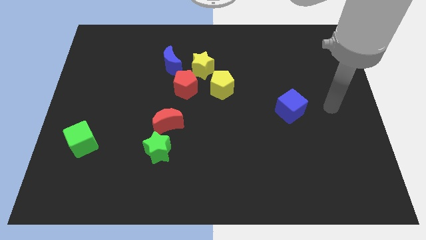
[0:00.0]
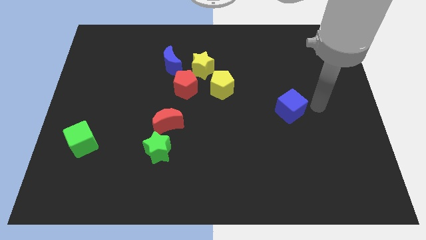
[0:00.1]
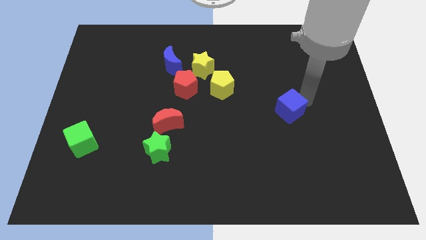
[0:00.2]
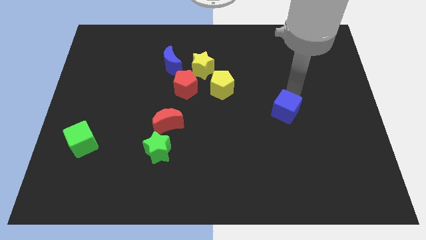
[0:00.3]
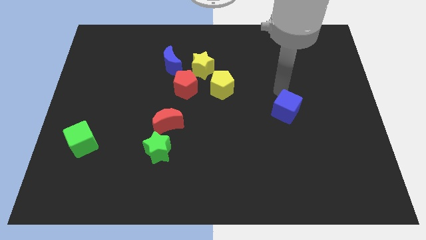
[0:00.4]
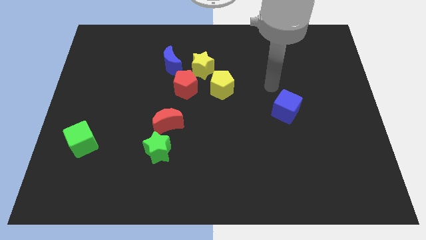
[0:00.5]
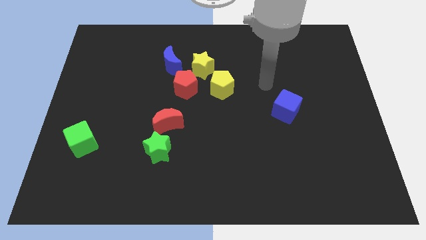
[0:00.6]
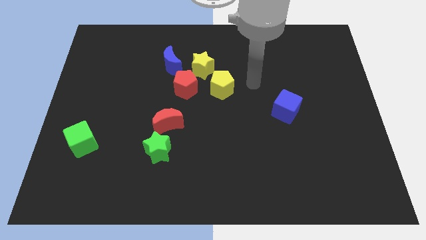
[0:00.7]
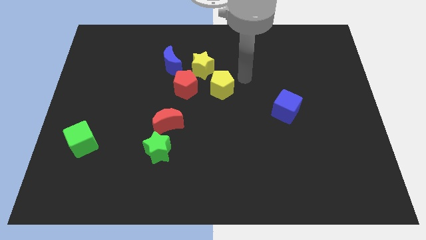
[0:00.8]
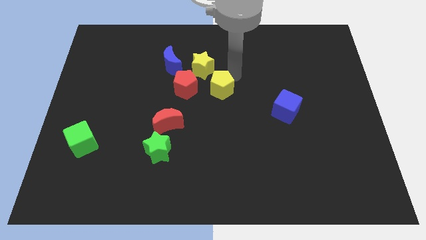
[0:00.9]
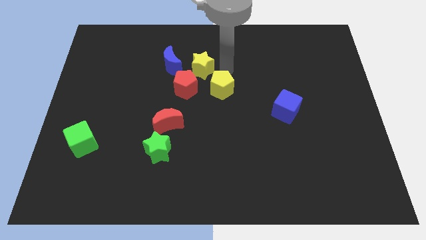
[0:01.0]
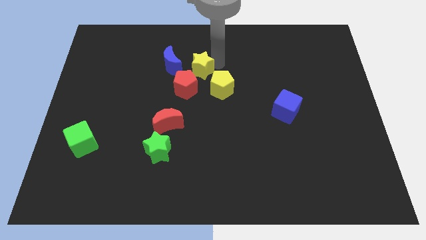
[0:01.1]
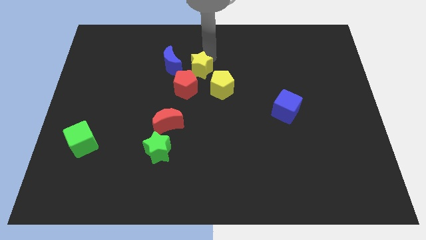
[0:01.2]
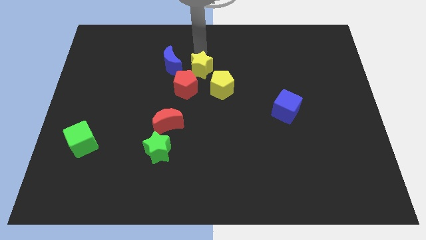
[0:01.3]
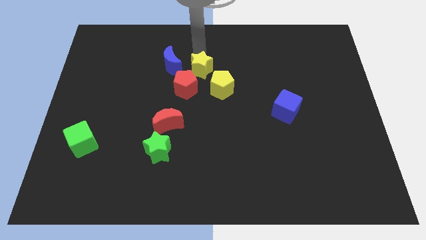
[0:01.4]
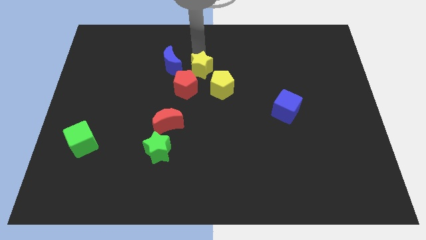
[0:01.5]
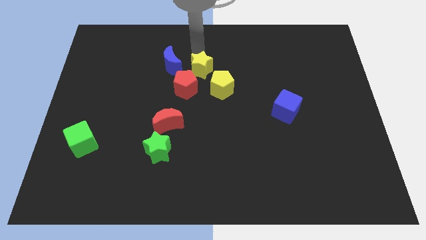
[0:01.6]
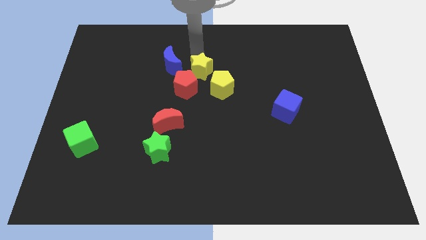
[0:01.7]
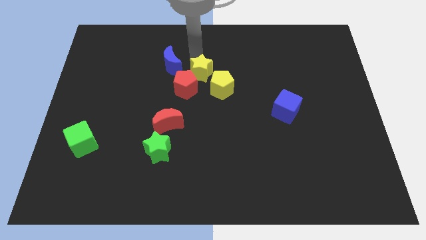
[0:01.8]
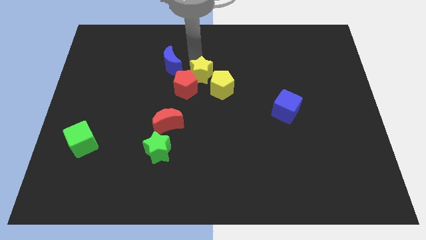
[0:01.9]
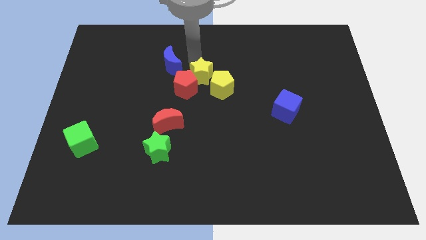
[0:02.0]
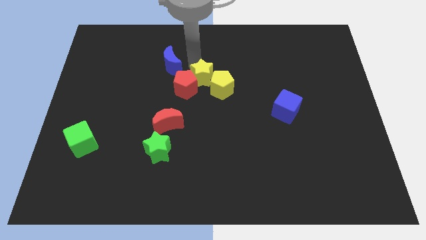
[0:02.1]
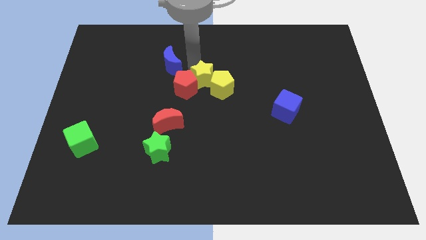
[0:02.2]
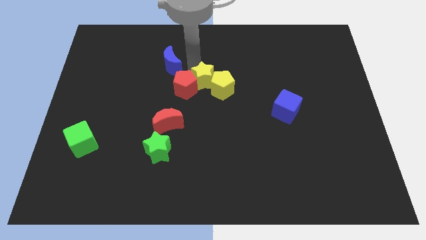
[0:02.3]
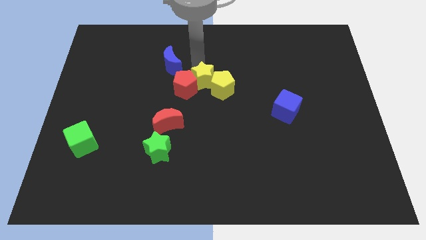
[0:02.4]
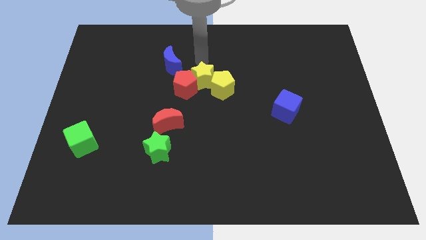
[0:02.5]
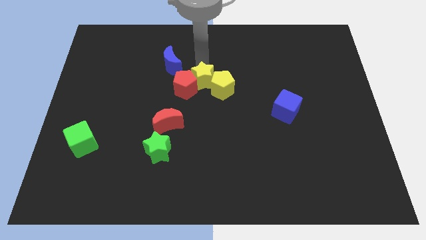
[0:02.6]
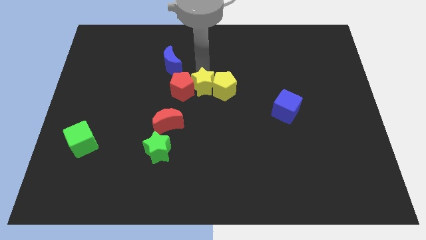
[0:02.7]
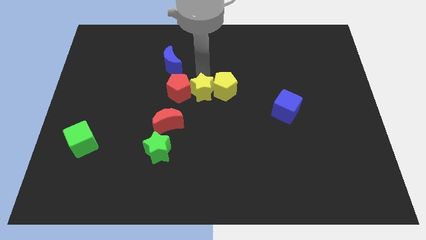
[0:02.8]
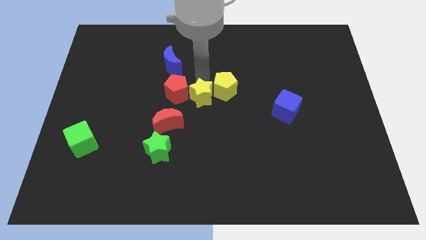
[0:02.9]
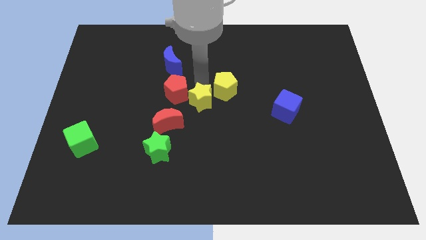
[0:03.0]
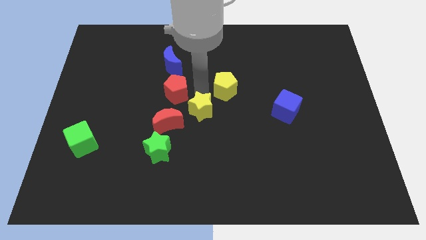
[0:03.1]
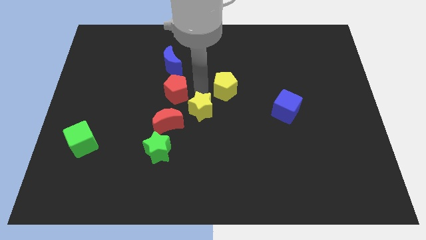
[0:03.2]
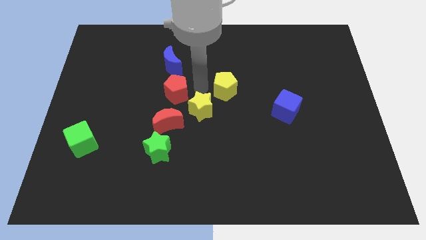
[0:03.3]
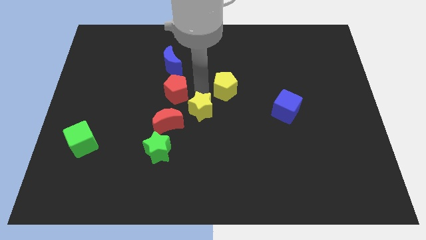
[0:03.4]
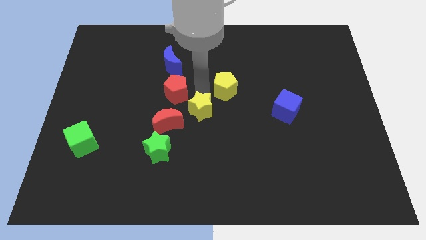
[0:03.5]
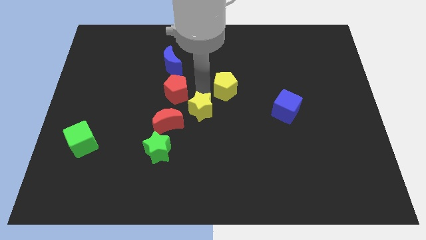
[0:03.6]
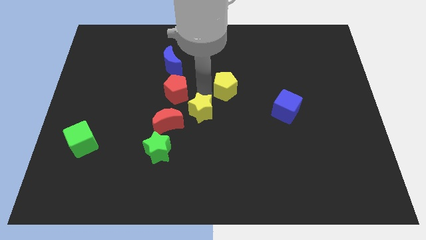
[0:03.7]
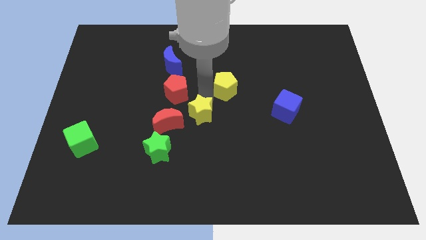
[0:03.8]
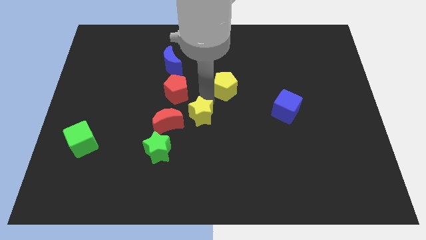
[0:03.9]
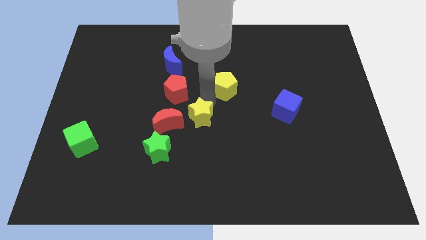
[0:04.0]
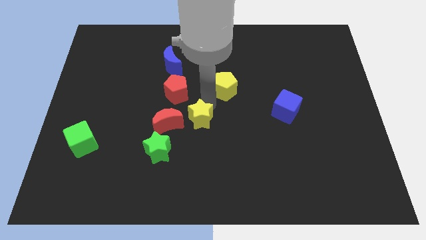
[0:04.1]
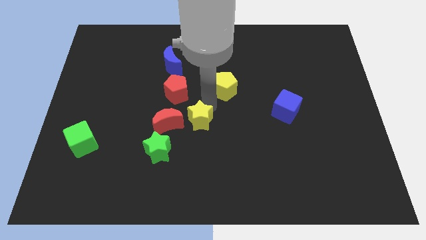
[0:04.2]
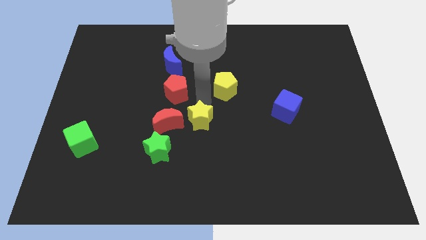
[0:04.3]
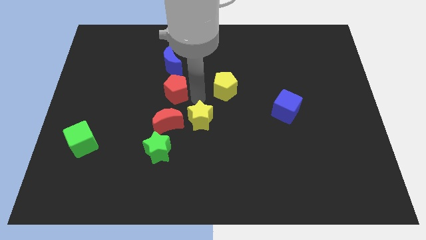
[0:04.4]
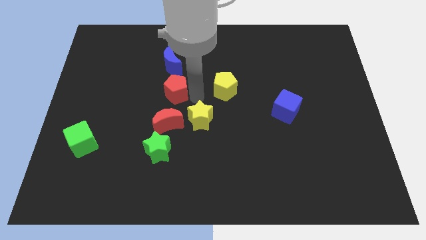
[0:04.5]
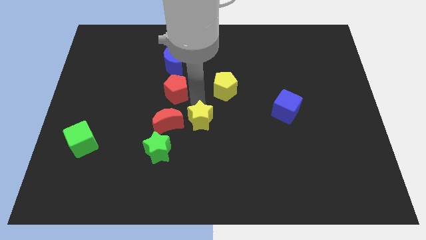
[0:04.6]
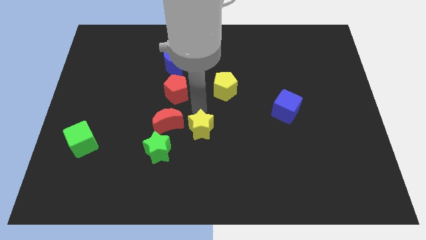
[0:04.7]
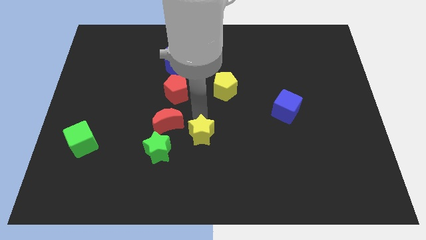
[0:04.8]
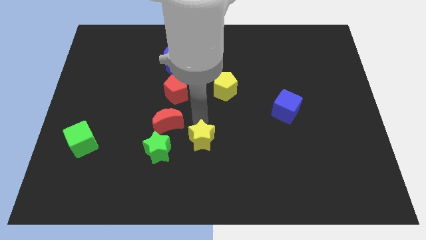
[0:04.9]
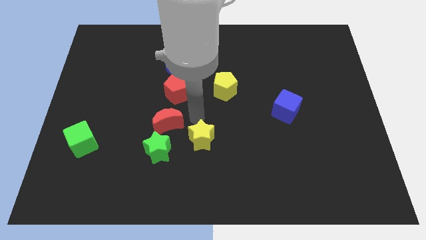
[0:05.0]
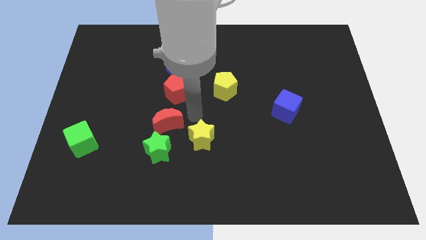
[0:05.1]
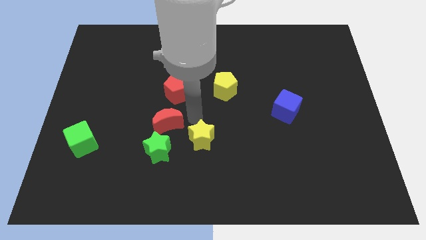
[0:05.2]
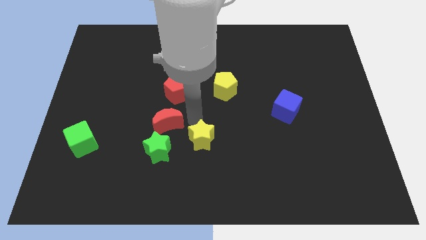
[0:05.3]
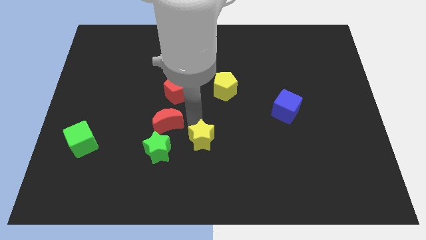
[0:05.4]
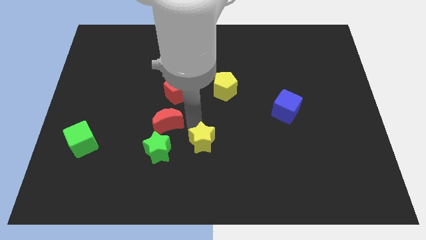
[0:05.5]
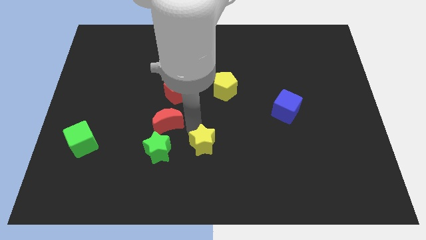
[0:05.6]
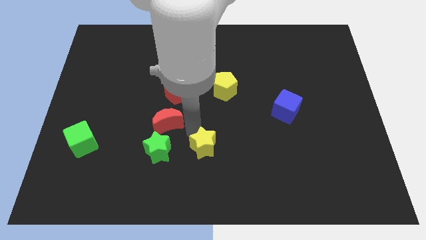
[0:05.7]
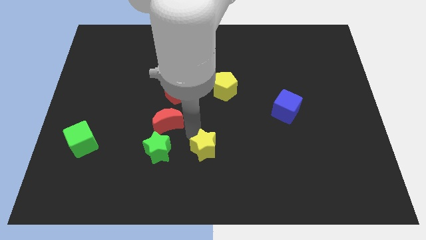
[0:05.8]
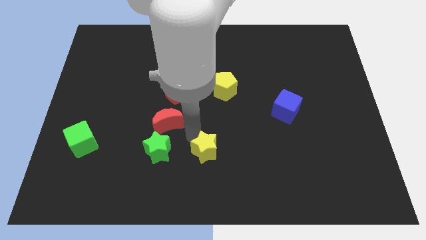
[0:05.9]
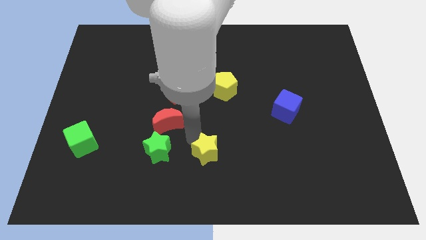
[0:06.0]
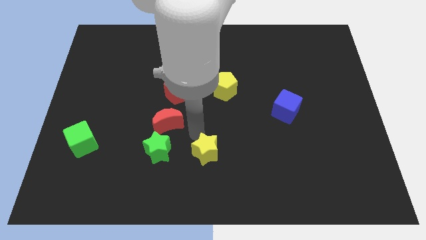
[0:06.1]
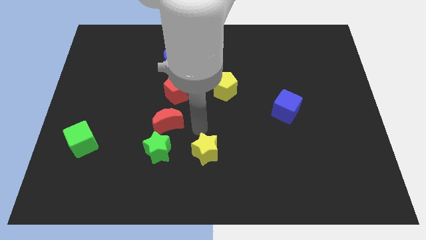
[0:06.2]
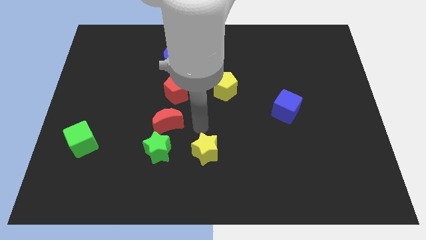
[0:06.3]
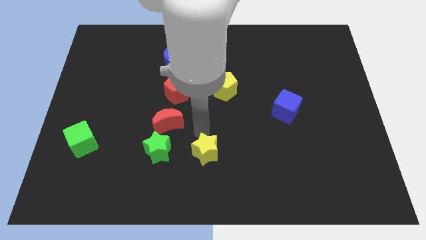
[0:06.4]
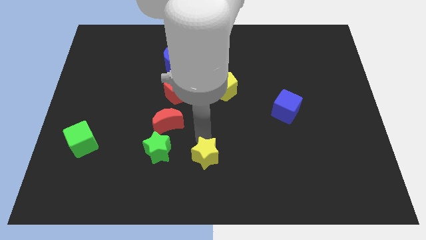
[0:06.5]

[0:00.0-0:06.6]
put the yellow star to the bottom

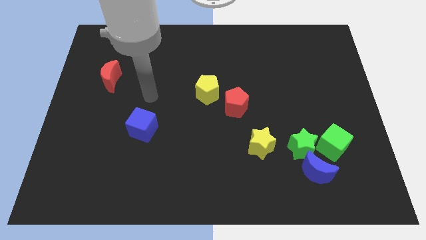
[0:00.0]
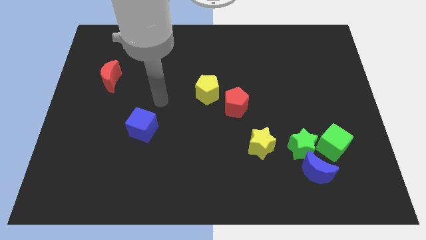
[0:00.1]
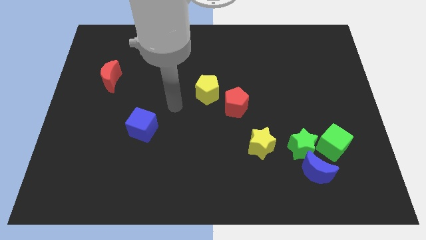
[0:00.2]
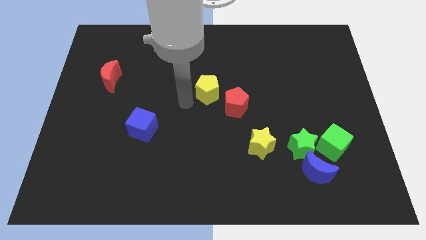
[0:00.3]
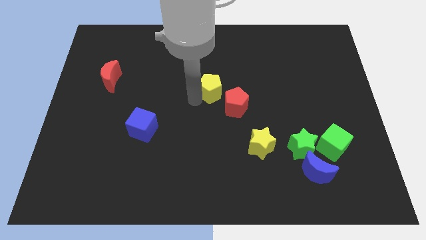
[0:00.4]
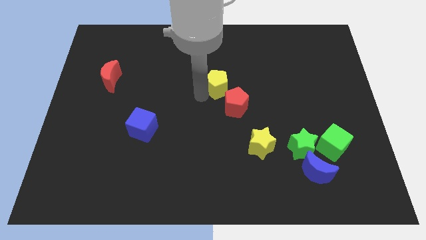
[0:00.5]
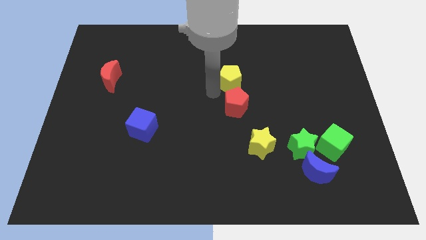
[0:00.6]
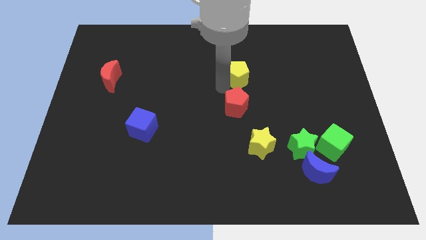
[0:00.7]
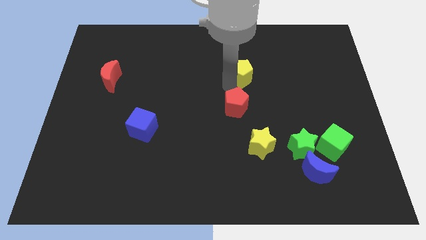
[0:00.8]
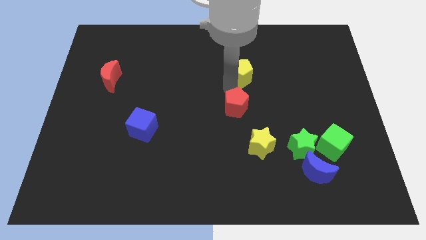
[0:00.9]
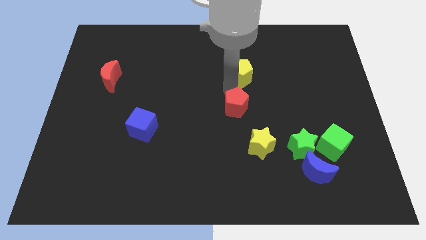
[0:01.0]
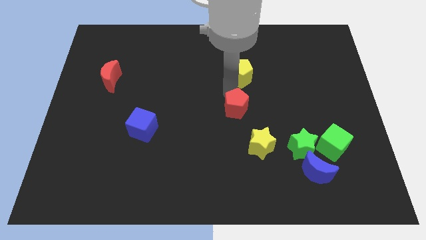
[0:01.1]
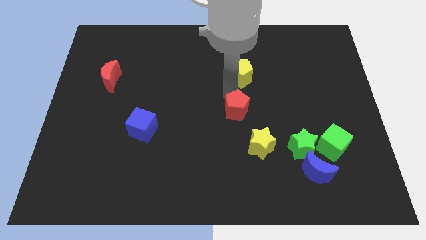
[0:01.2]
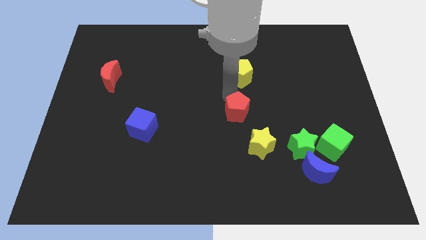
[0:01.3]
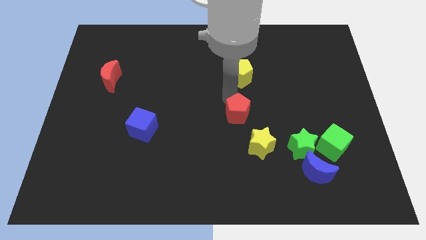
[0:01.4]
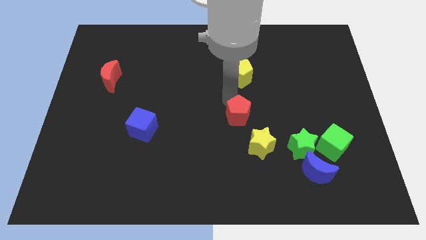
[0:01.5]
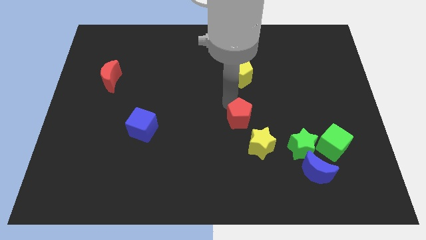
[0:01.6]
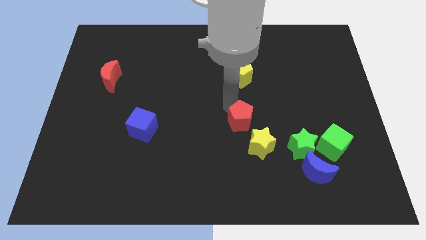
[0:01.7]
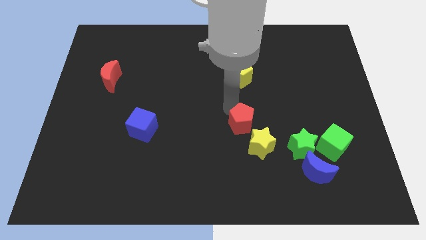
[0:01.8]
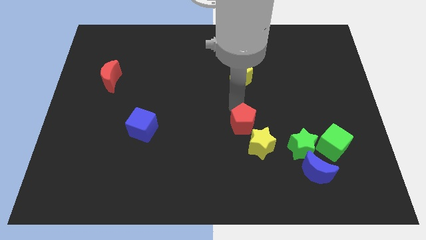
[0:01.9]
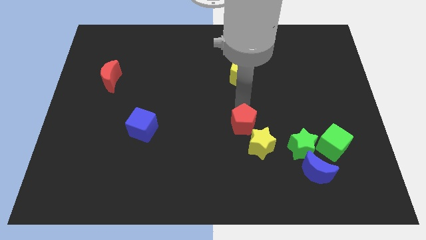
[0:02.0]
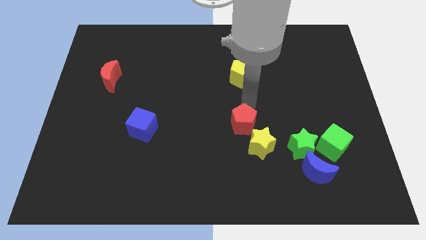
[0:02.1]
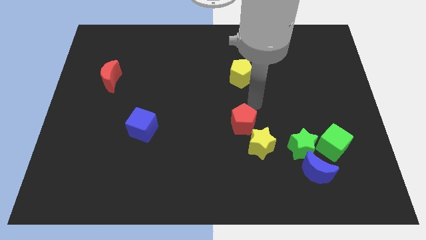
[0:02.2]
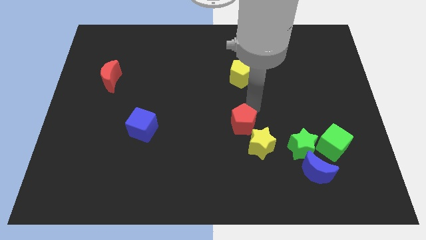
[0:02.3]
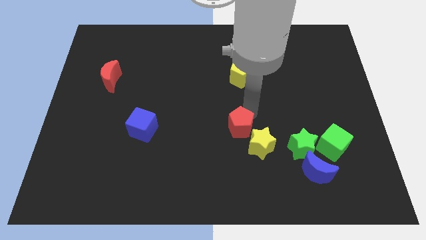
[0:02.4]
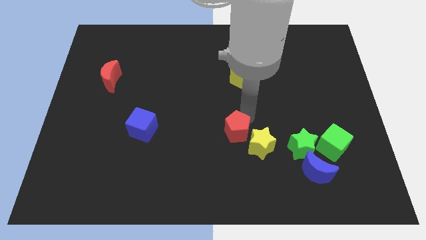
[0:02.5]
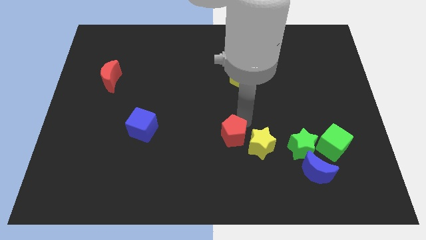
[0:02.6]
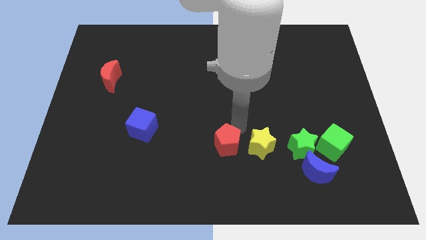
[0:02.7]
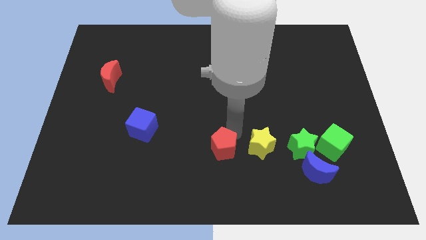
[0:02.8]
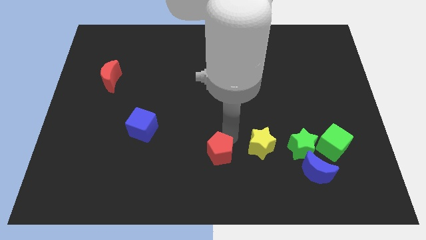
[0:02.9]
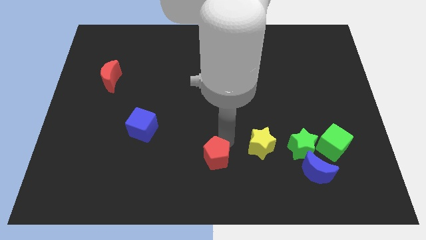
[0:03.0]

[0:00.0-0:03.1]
move the red pentagon to the bottom
